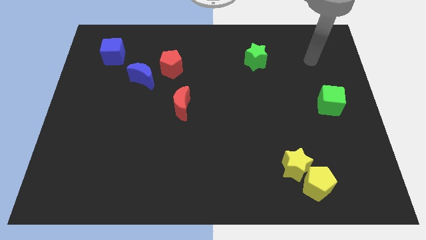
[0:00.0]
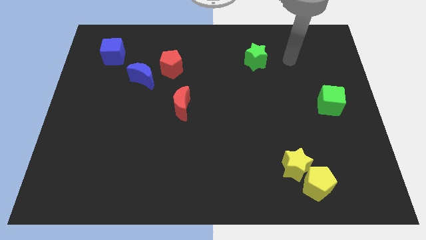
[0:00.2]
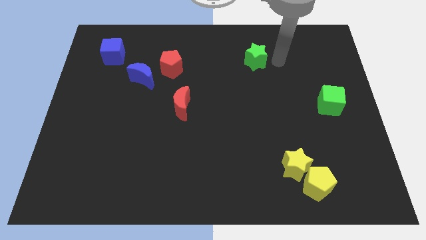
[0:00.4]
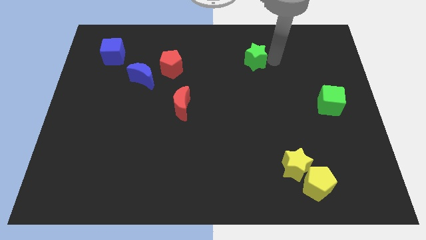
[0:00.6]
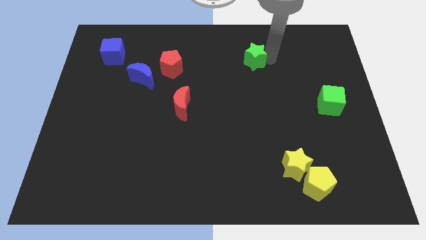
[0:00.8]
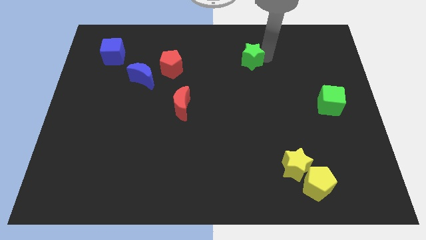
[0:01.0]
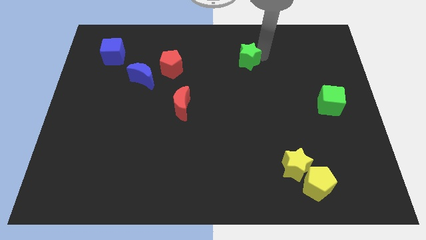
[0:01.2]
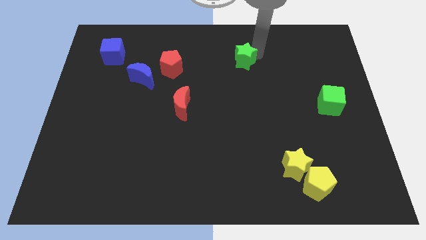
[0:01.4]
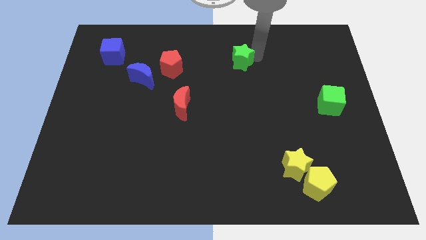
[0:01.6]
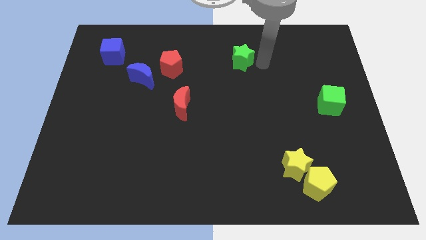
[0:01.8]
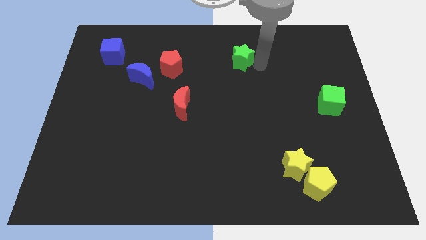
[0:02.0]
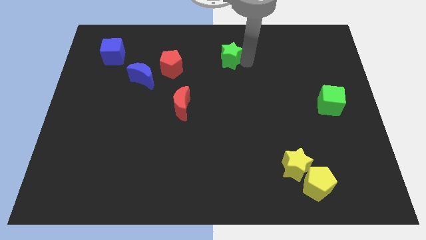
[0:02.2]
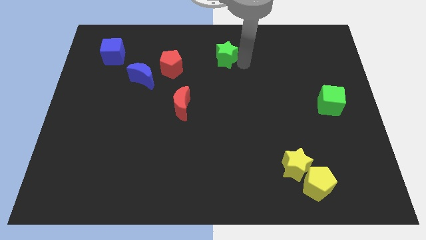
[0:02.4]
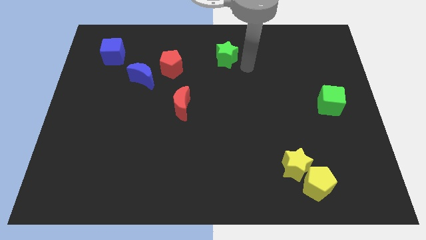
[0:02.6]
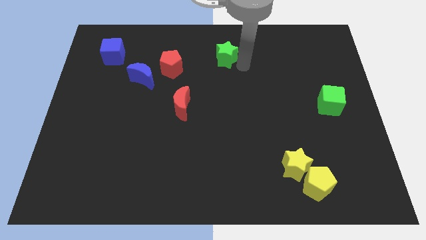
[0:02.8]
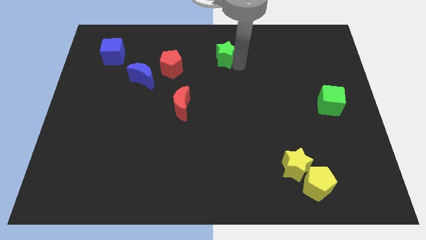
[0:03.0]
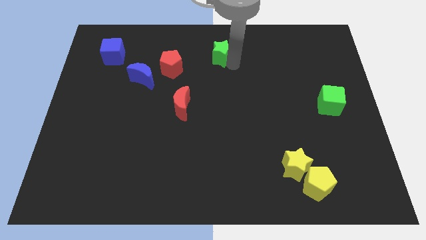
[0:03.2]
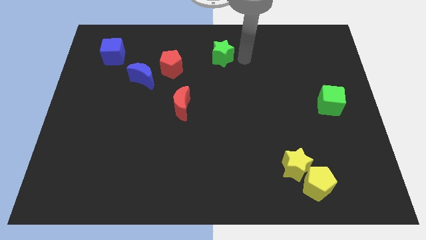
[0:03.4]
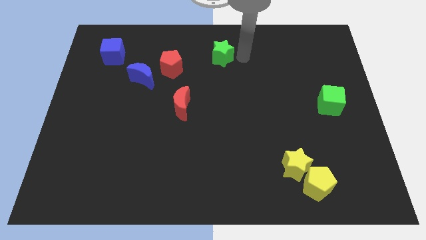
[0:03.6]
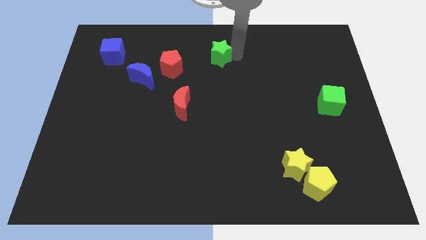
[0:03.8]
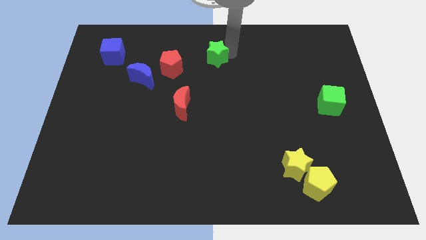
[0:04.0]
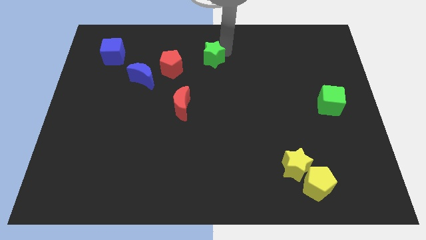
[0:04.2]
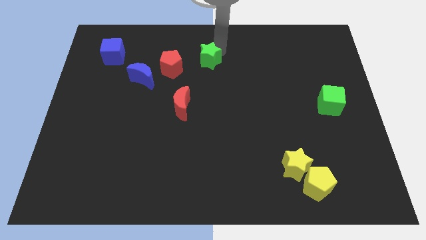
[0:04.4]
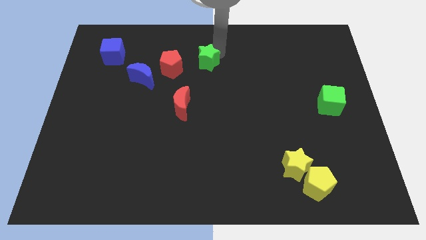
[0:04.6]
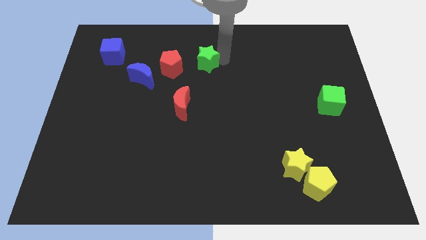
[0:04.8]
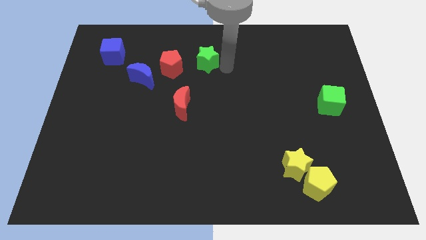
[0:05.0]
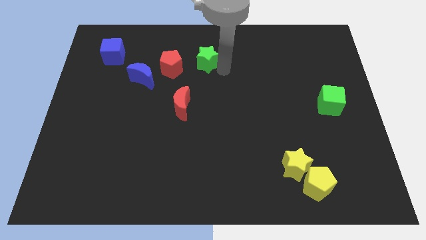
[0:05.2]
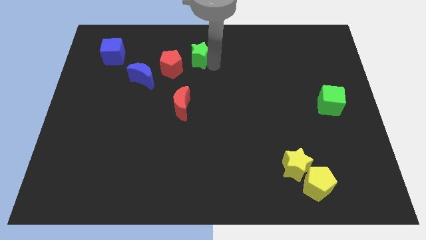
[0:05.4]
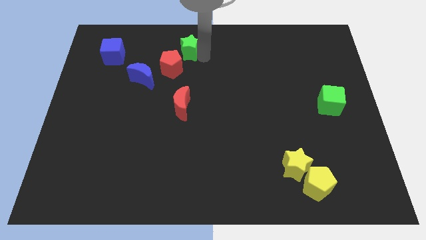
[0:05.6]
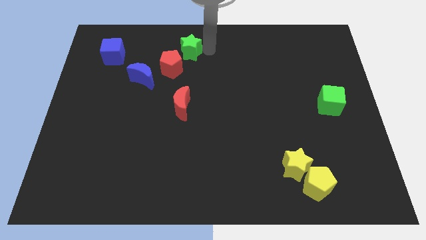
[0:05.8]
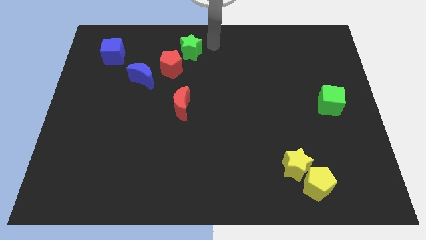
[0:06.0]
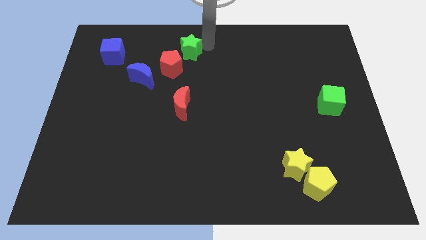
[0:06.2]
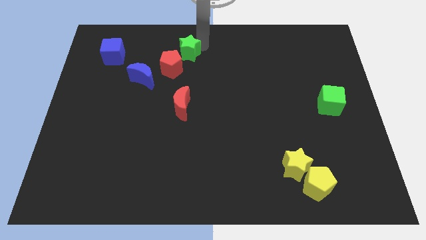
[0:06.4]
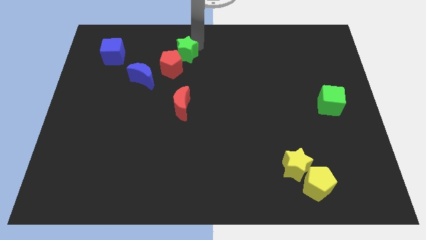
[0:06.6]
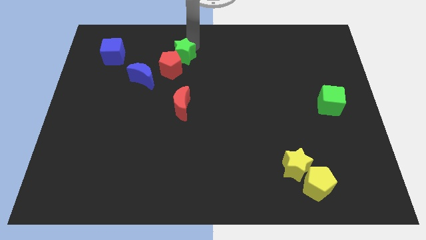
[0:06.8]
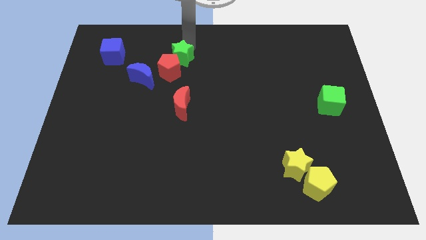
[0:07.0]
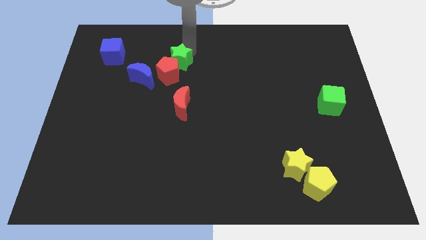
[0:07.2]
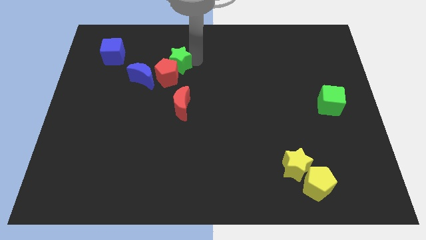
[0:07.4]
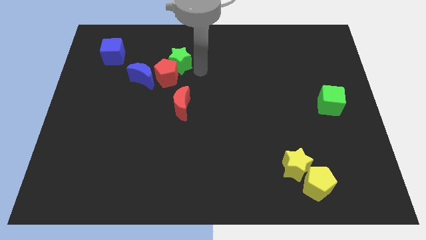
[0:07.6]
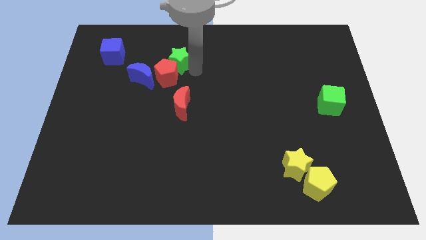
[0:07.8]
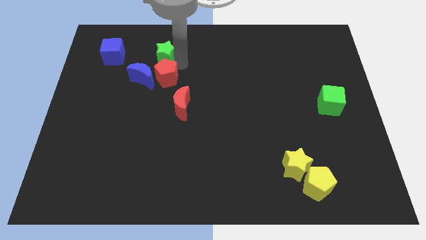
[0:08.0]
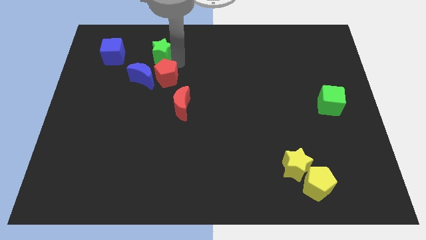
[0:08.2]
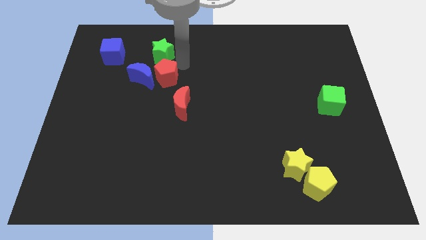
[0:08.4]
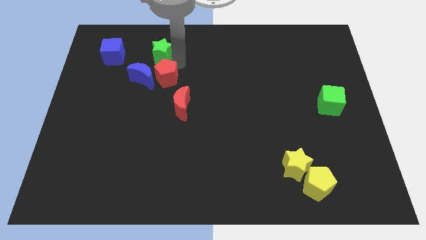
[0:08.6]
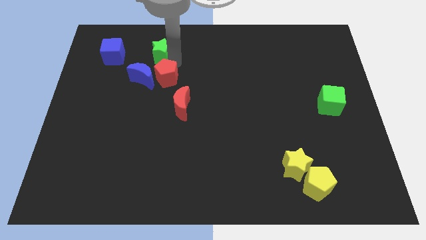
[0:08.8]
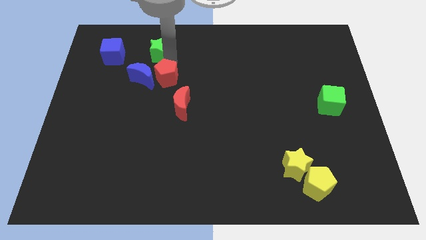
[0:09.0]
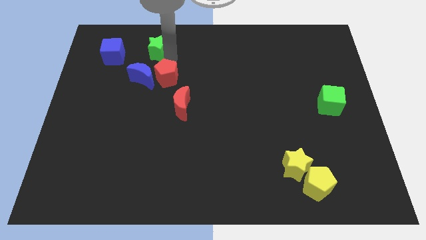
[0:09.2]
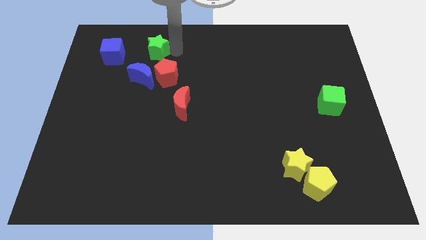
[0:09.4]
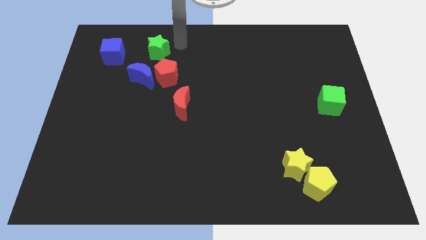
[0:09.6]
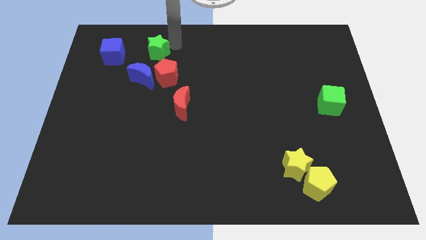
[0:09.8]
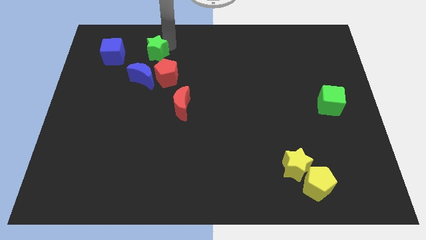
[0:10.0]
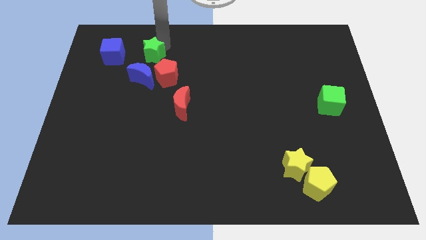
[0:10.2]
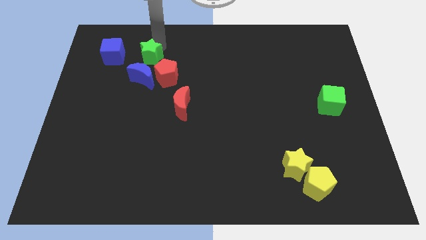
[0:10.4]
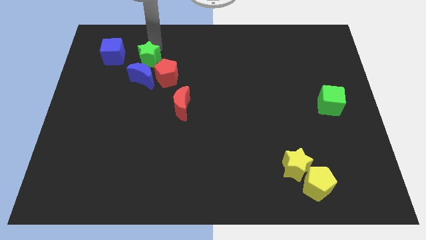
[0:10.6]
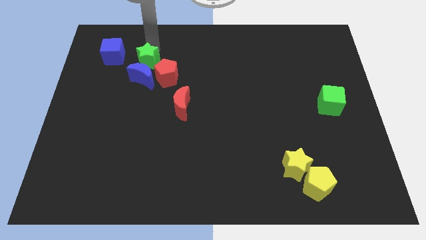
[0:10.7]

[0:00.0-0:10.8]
slide the green star to the top left side of the blue moon

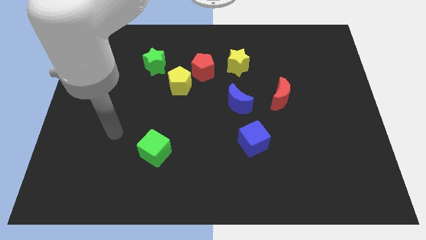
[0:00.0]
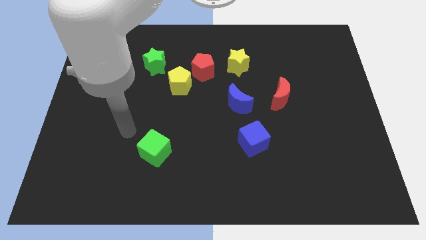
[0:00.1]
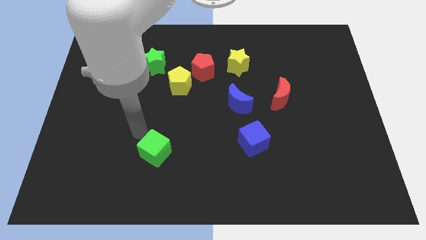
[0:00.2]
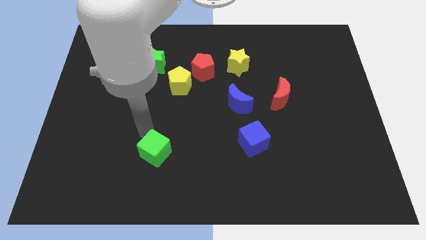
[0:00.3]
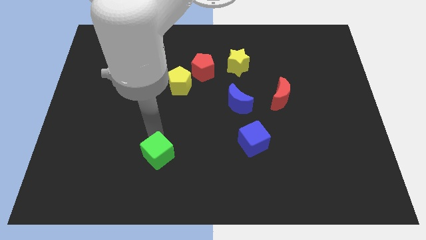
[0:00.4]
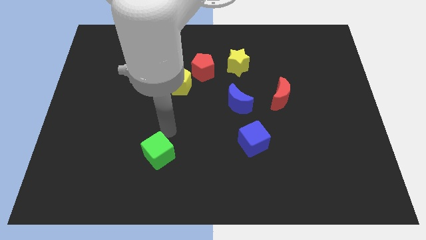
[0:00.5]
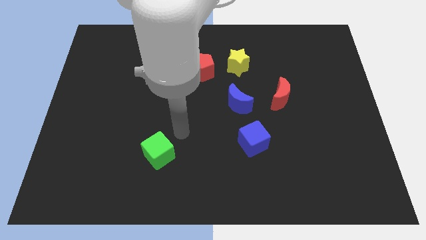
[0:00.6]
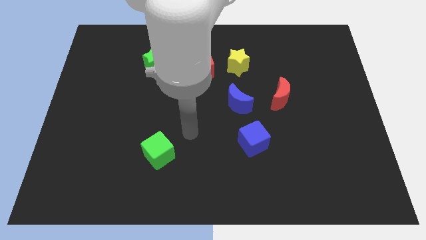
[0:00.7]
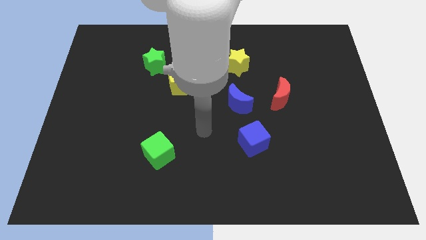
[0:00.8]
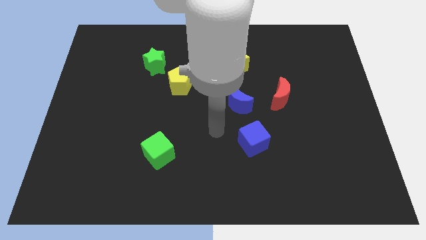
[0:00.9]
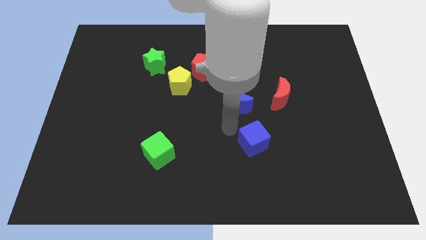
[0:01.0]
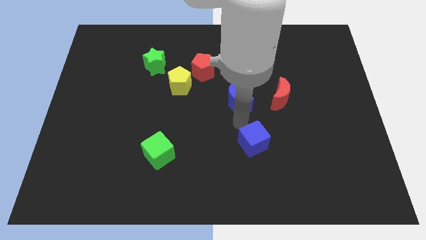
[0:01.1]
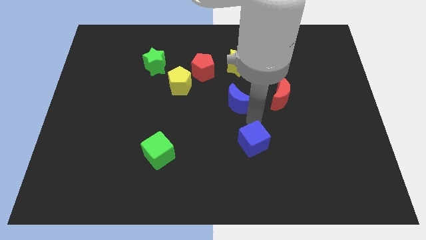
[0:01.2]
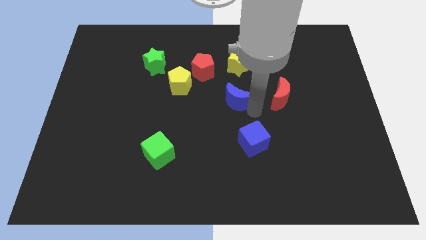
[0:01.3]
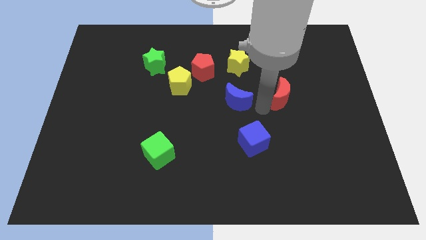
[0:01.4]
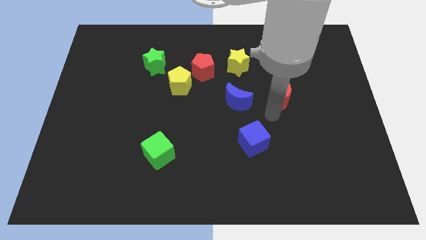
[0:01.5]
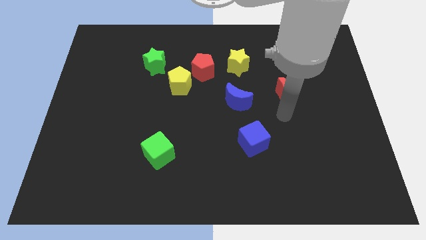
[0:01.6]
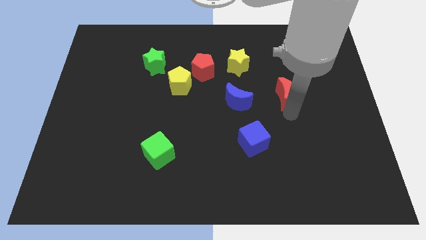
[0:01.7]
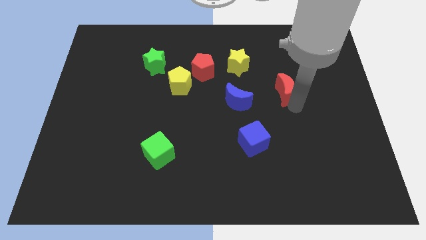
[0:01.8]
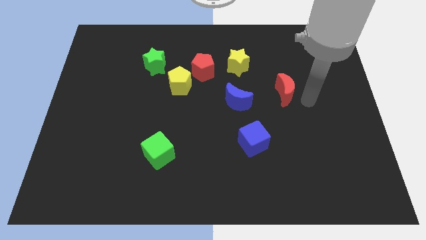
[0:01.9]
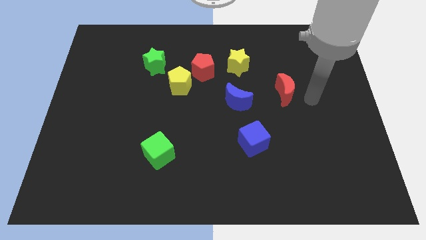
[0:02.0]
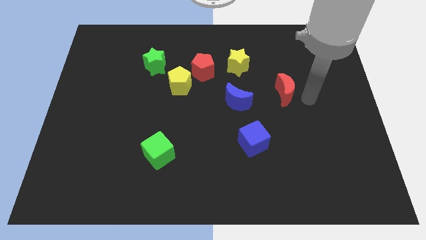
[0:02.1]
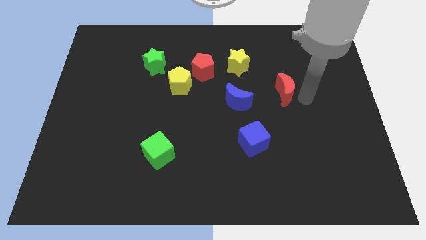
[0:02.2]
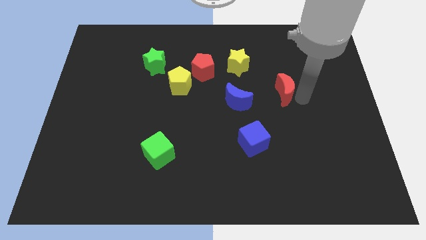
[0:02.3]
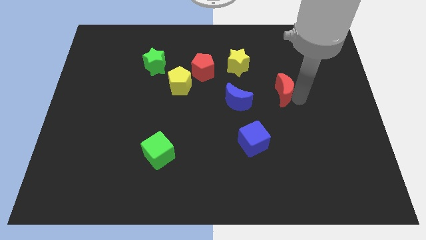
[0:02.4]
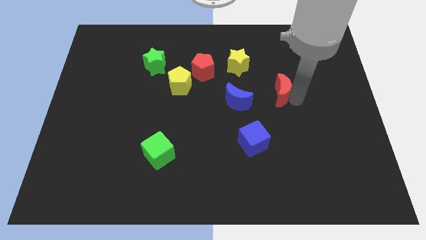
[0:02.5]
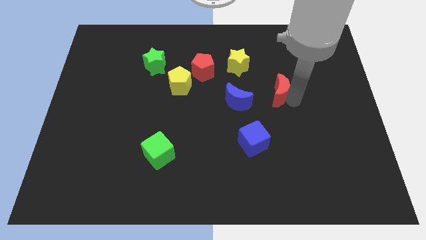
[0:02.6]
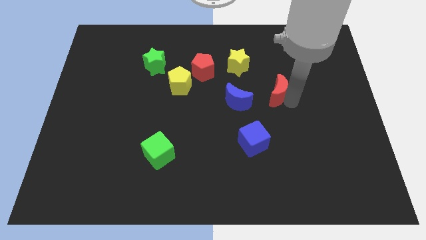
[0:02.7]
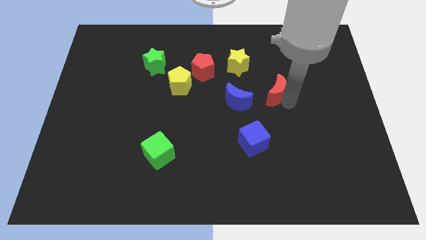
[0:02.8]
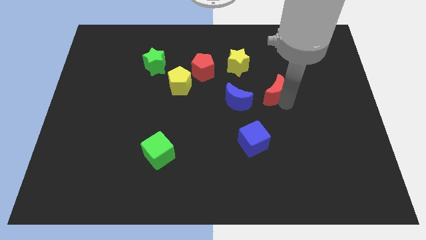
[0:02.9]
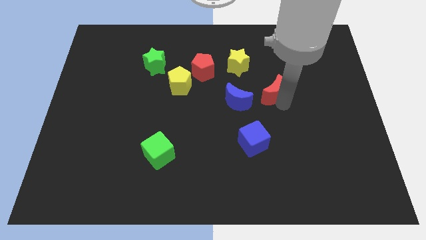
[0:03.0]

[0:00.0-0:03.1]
put the red moon to the top right side of the blue moon
